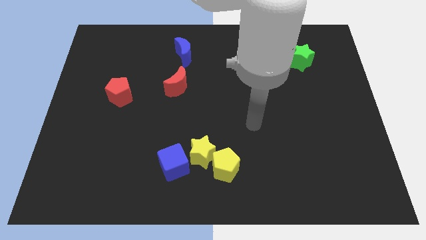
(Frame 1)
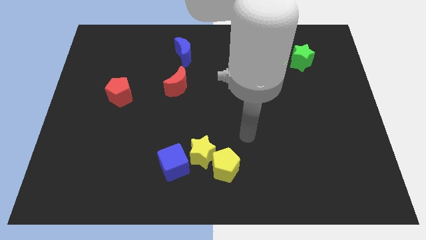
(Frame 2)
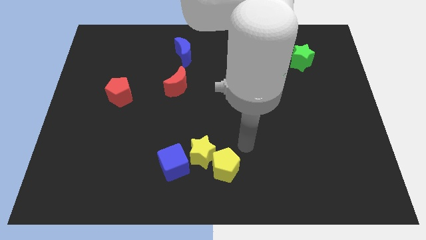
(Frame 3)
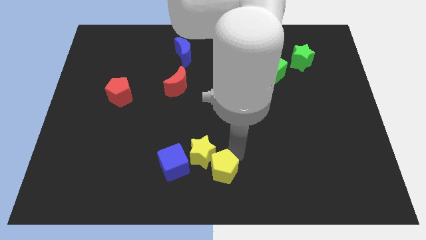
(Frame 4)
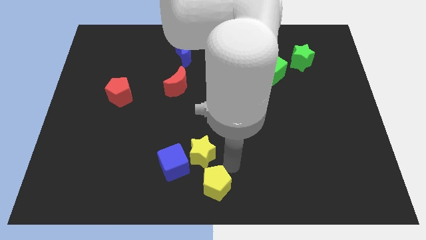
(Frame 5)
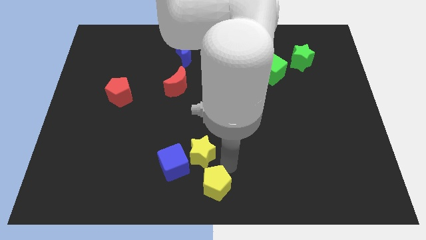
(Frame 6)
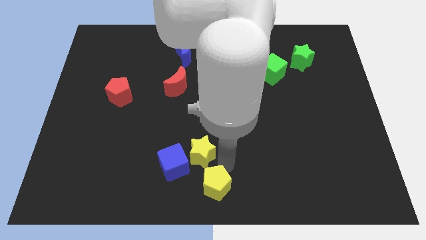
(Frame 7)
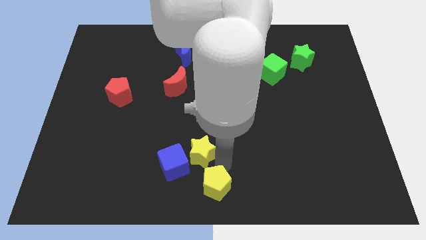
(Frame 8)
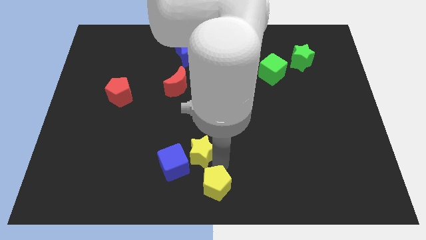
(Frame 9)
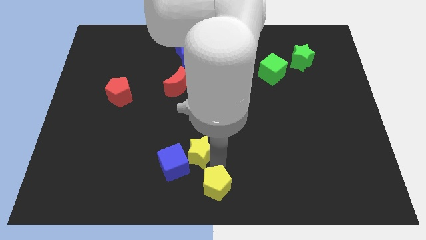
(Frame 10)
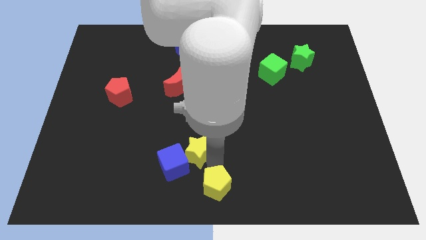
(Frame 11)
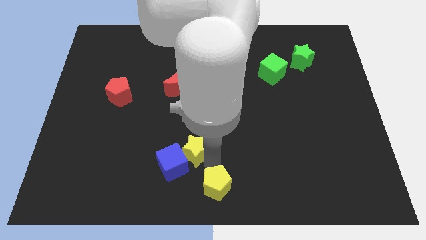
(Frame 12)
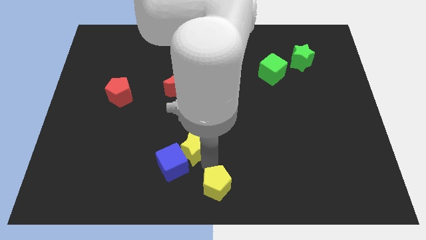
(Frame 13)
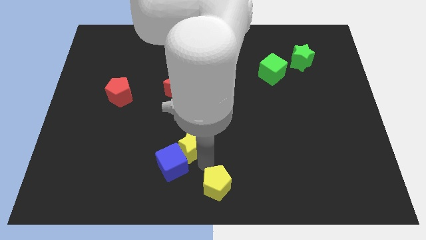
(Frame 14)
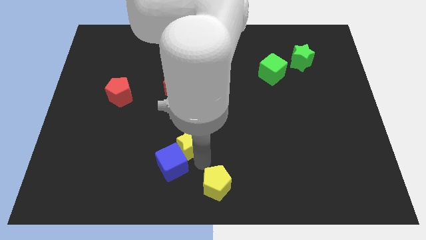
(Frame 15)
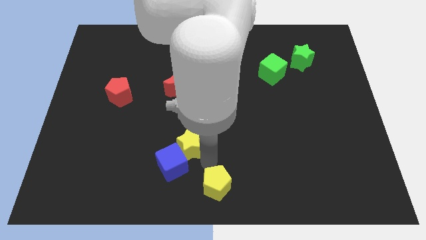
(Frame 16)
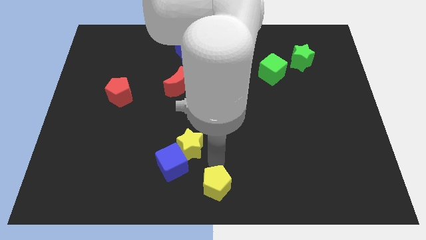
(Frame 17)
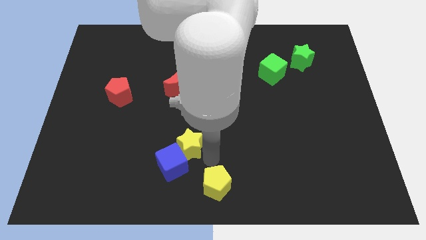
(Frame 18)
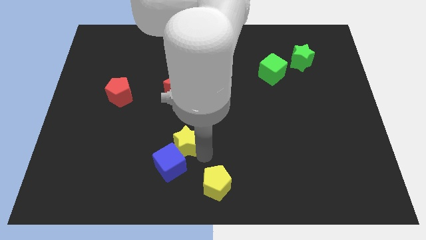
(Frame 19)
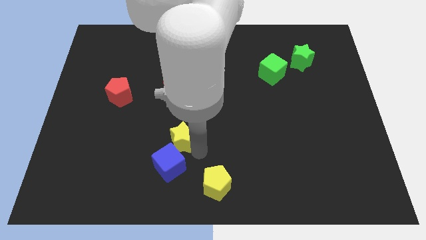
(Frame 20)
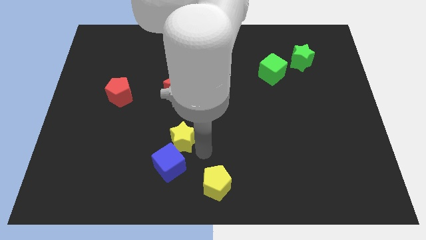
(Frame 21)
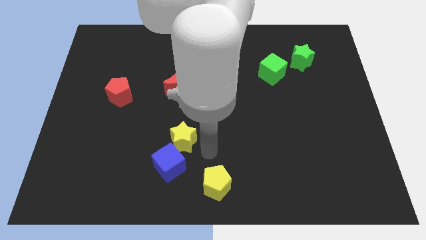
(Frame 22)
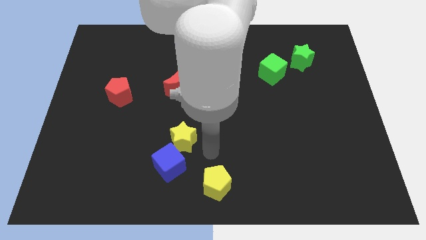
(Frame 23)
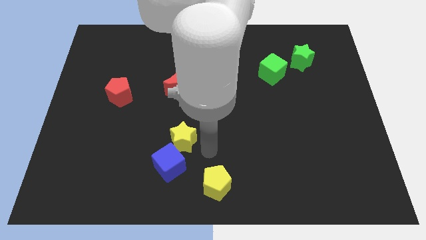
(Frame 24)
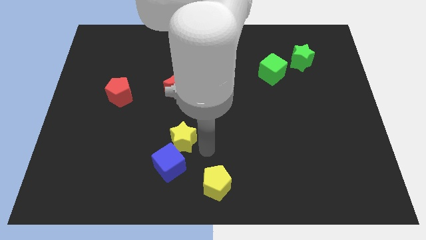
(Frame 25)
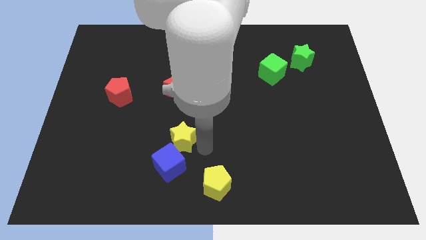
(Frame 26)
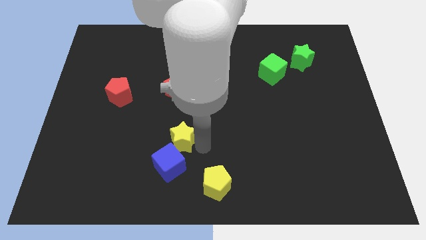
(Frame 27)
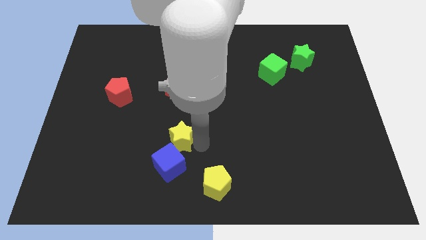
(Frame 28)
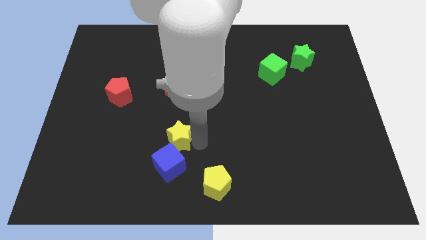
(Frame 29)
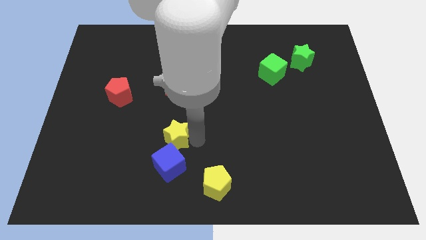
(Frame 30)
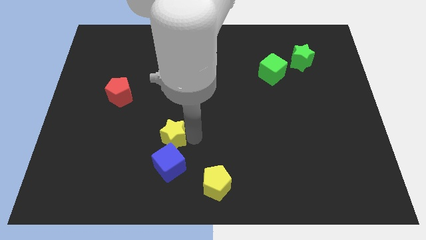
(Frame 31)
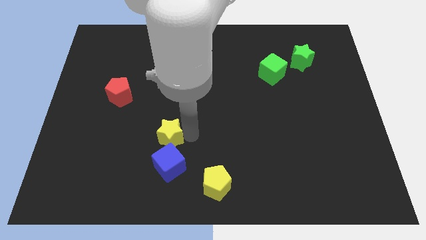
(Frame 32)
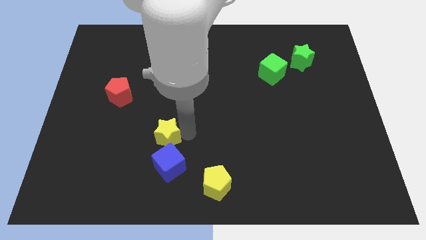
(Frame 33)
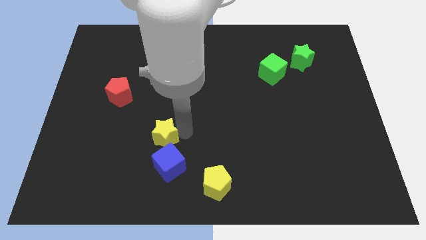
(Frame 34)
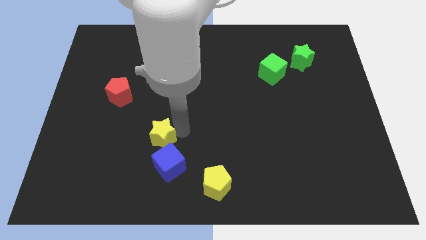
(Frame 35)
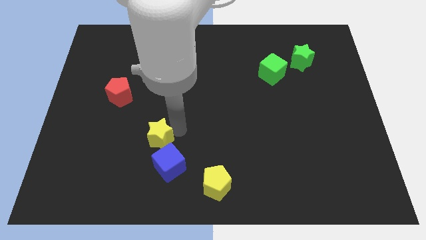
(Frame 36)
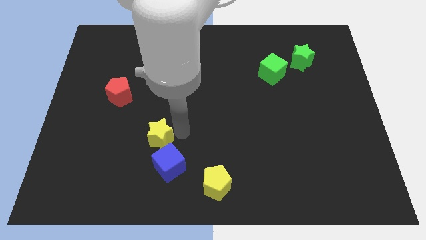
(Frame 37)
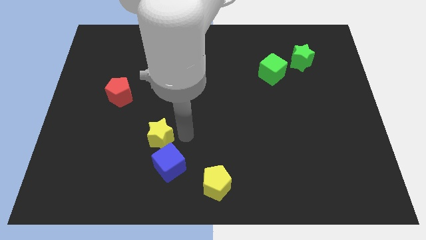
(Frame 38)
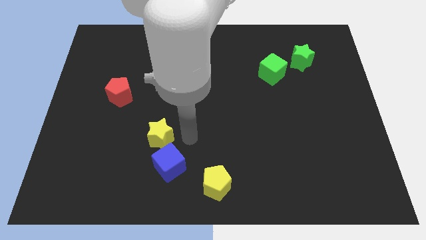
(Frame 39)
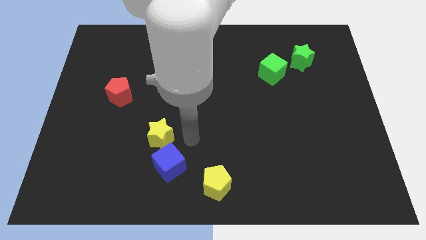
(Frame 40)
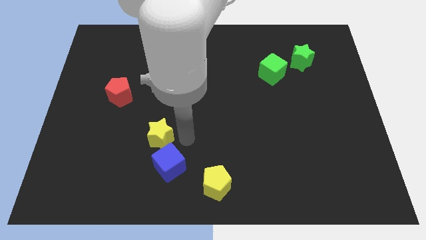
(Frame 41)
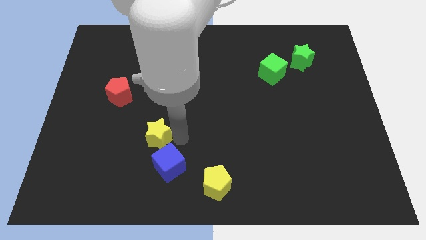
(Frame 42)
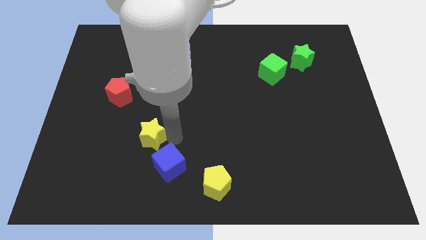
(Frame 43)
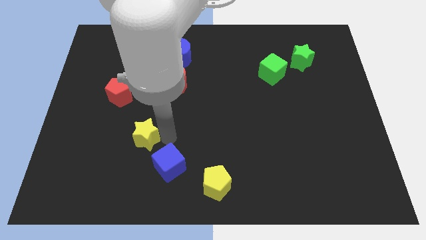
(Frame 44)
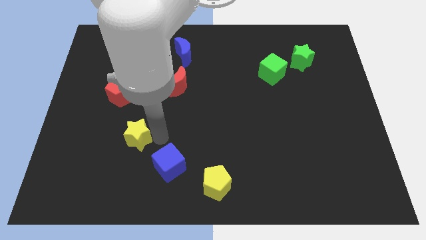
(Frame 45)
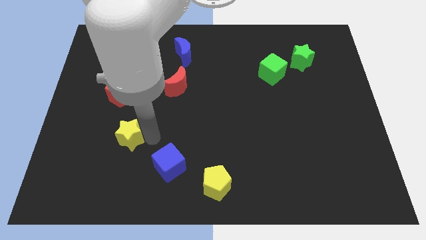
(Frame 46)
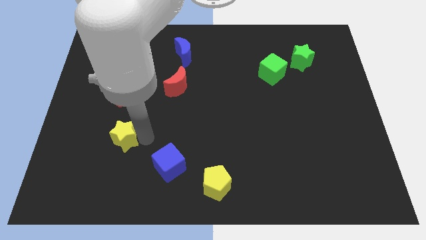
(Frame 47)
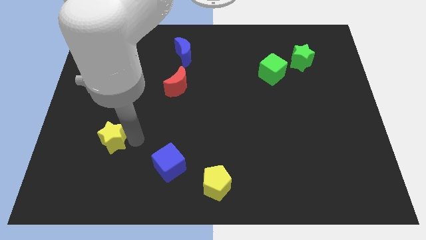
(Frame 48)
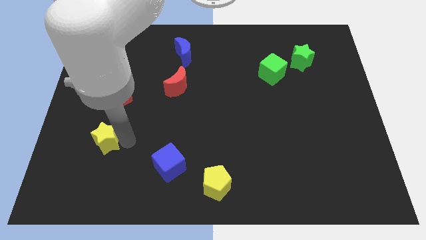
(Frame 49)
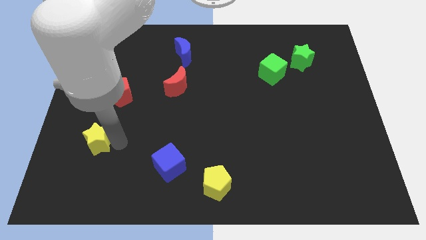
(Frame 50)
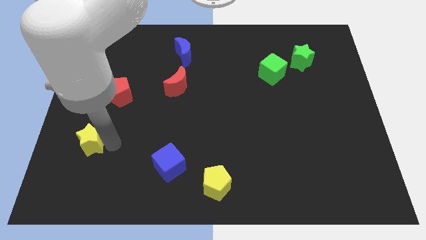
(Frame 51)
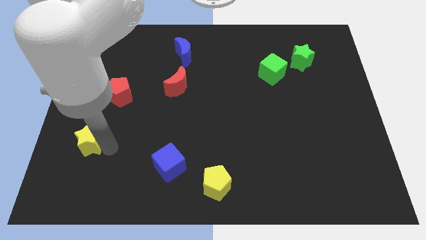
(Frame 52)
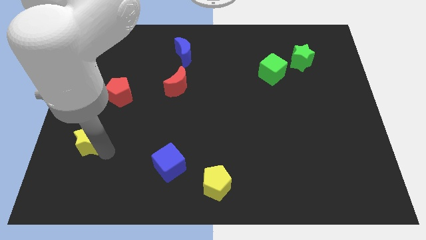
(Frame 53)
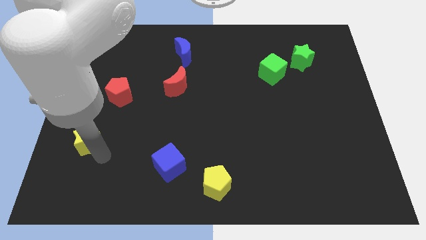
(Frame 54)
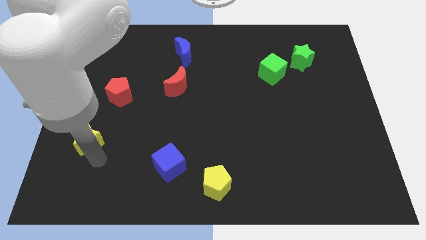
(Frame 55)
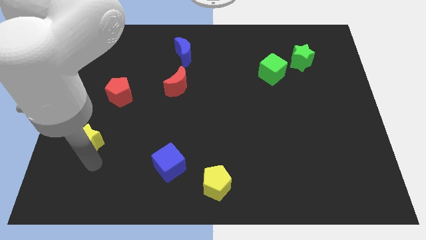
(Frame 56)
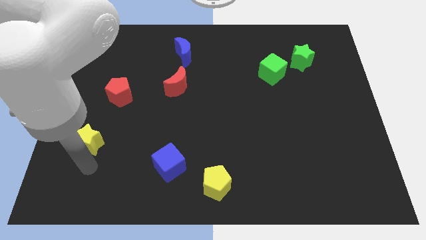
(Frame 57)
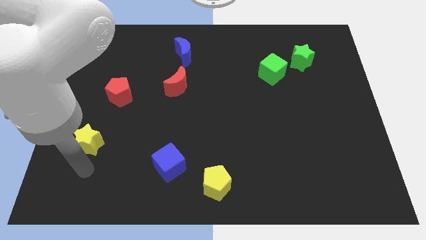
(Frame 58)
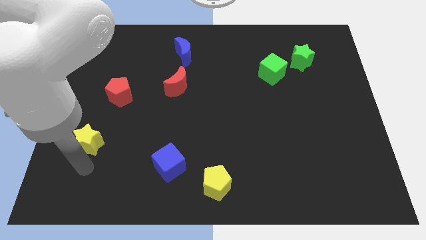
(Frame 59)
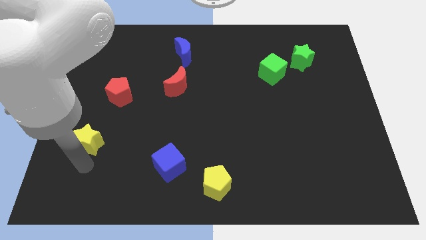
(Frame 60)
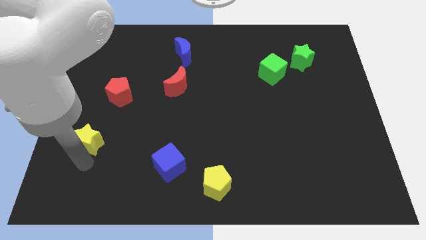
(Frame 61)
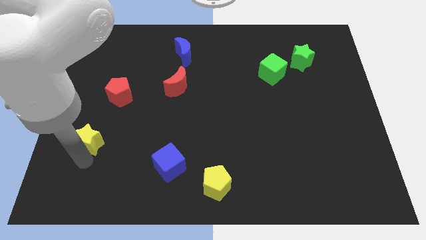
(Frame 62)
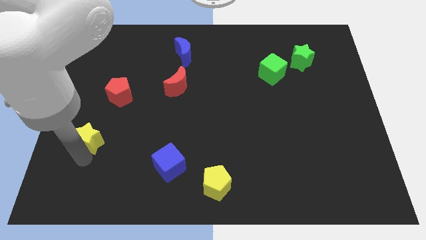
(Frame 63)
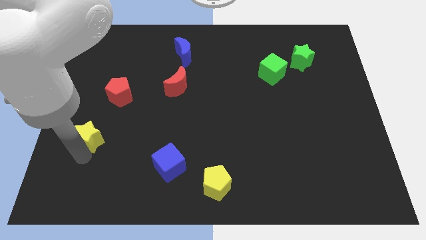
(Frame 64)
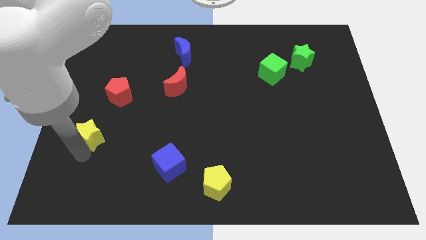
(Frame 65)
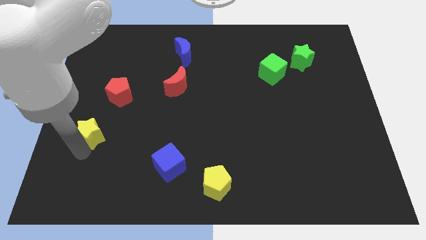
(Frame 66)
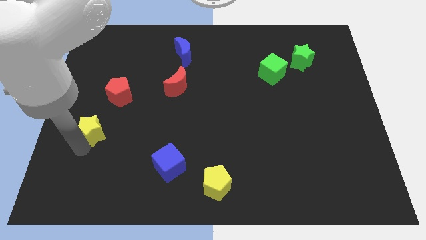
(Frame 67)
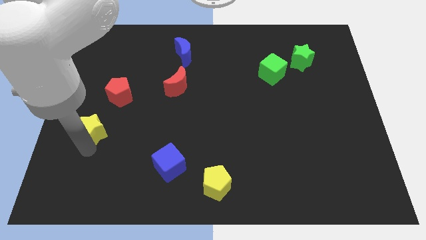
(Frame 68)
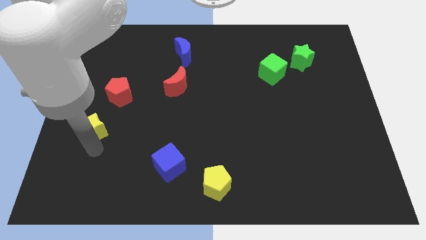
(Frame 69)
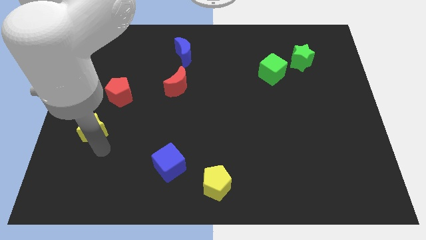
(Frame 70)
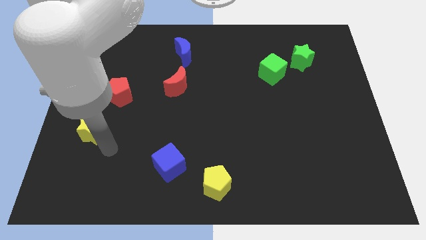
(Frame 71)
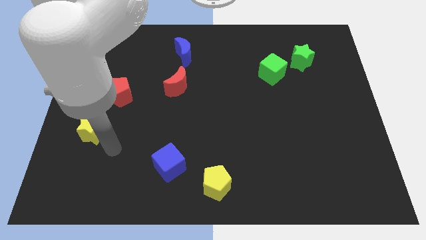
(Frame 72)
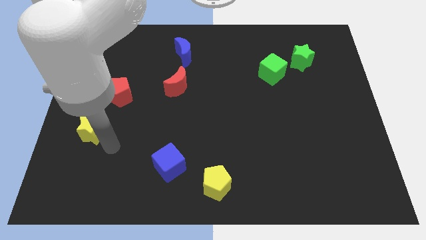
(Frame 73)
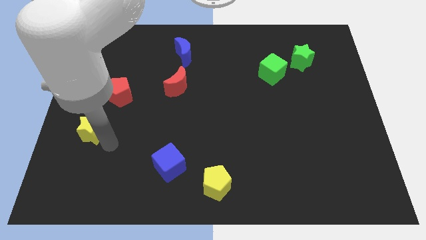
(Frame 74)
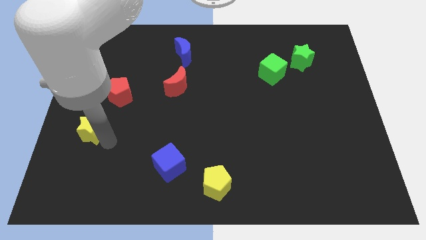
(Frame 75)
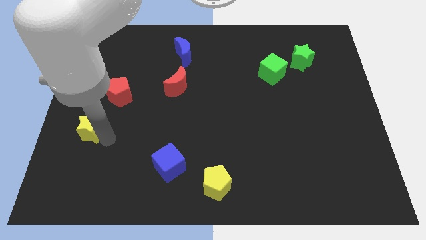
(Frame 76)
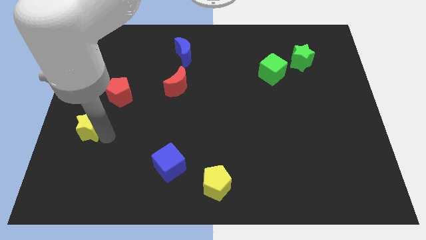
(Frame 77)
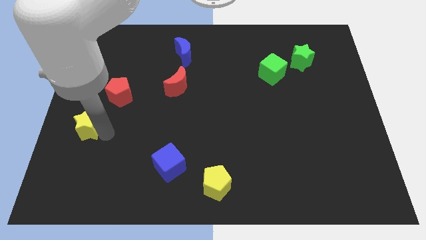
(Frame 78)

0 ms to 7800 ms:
push the yellow star to the left side of the board
